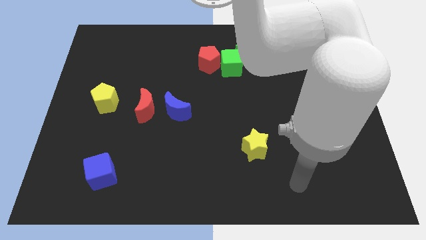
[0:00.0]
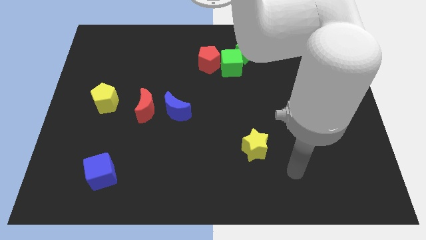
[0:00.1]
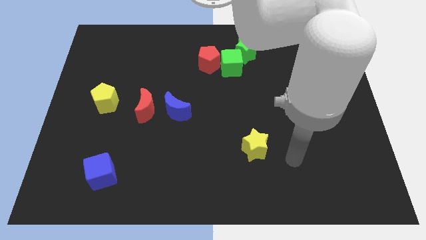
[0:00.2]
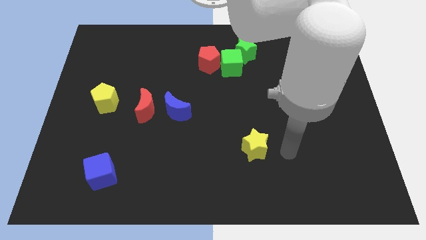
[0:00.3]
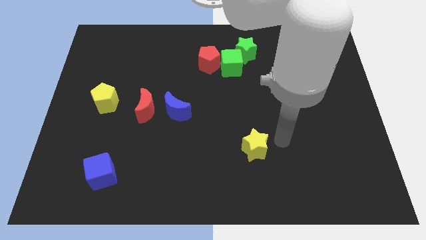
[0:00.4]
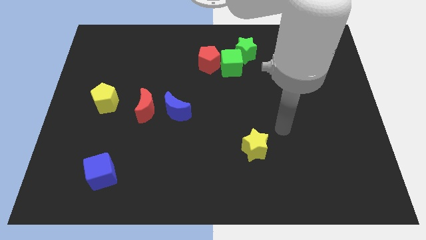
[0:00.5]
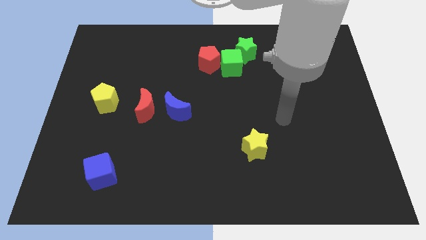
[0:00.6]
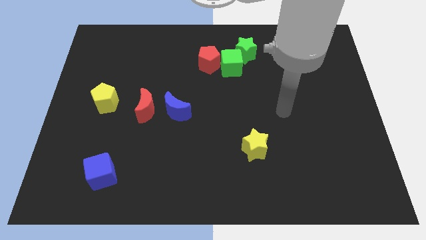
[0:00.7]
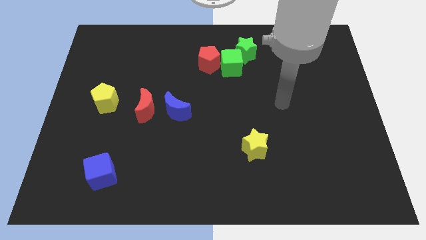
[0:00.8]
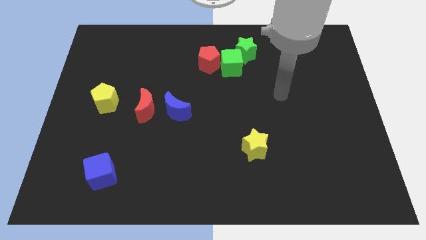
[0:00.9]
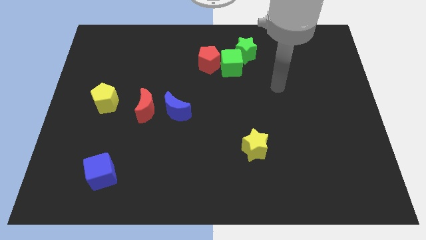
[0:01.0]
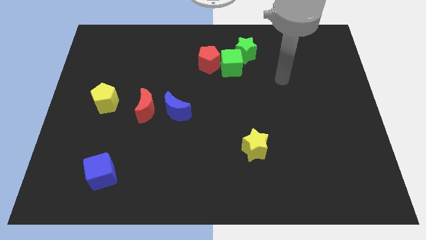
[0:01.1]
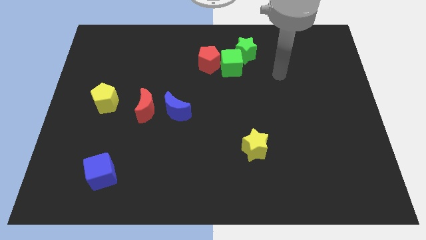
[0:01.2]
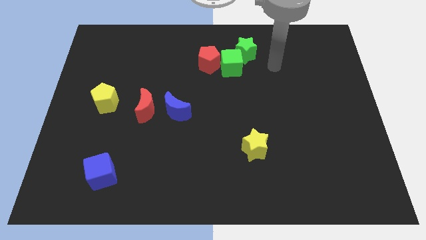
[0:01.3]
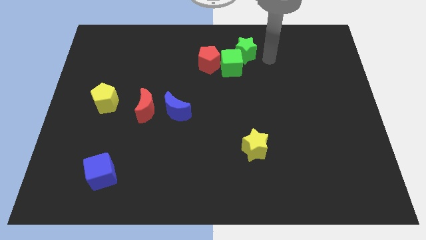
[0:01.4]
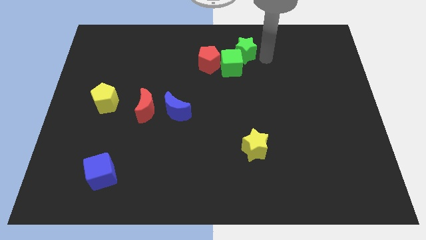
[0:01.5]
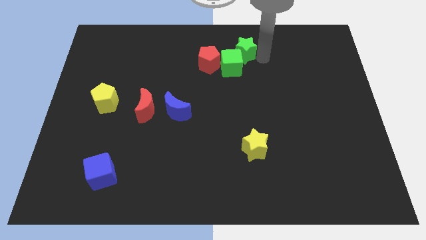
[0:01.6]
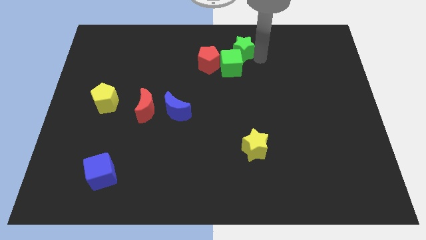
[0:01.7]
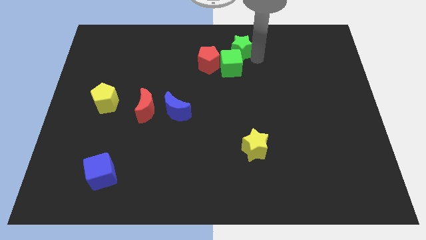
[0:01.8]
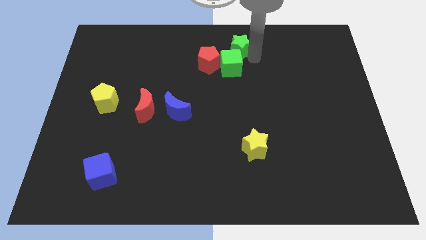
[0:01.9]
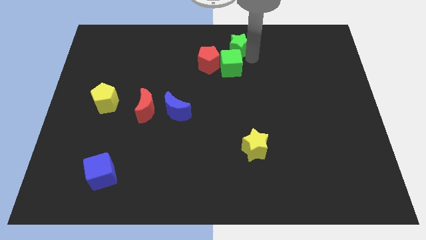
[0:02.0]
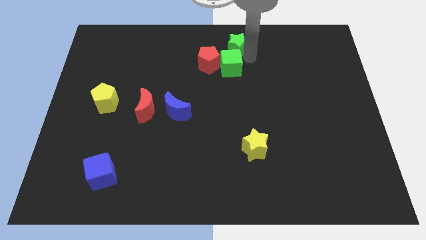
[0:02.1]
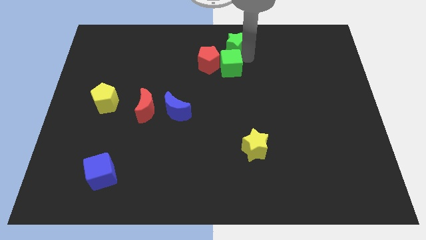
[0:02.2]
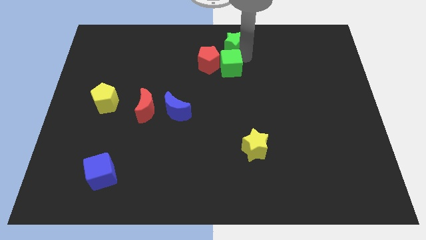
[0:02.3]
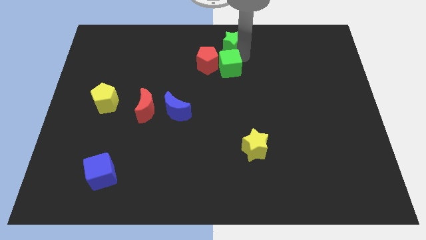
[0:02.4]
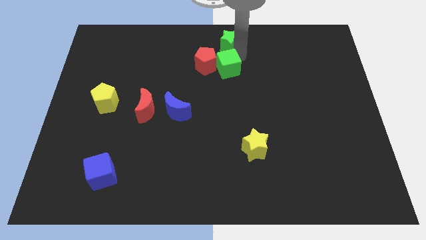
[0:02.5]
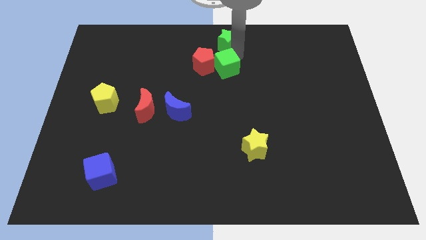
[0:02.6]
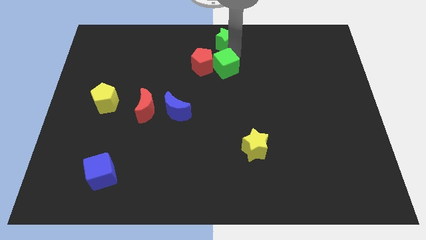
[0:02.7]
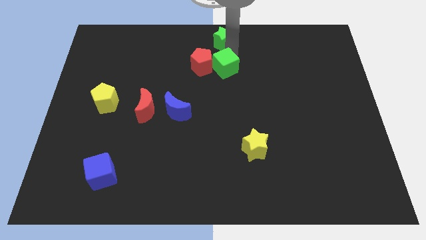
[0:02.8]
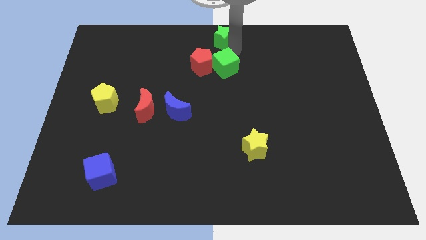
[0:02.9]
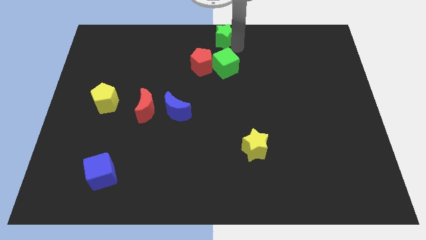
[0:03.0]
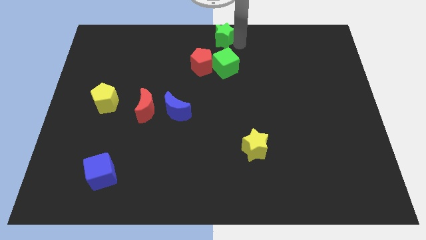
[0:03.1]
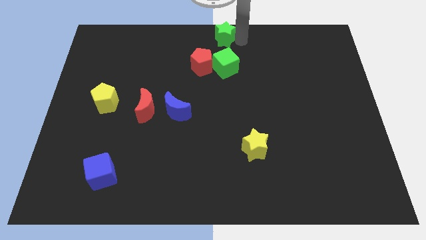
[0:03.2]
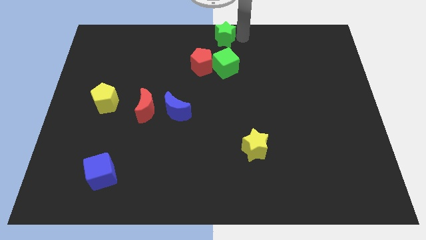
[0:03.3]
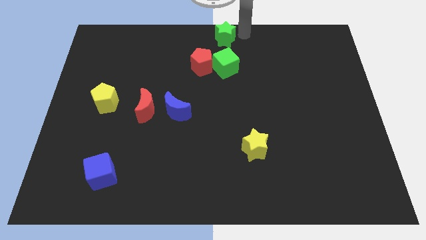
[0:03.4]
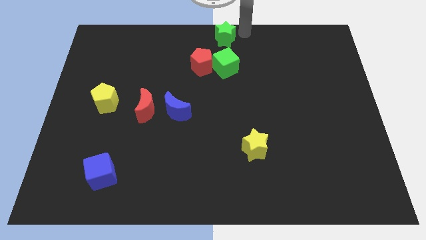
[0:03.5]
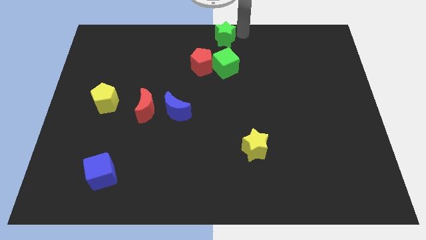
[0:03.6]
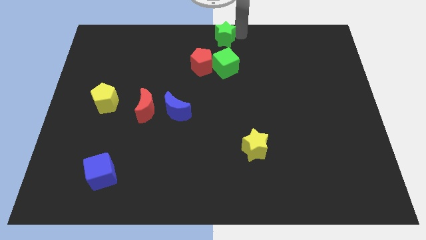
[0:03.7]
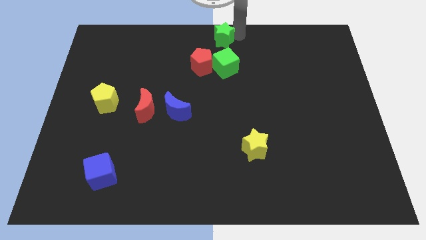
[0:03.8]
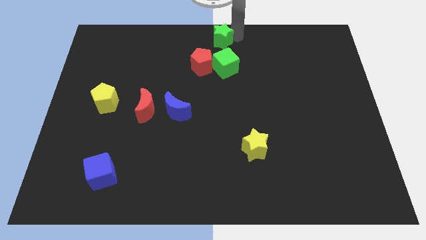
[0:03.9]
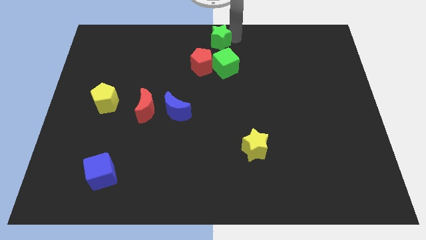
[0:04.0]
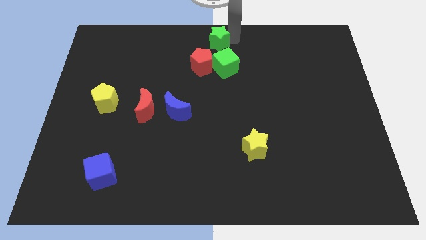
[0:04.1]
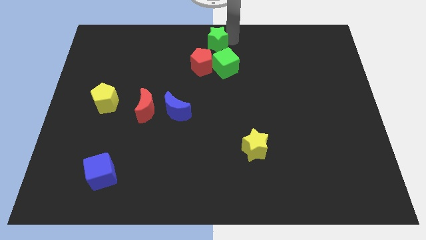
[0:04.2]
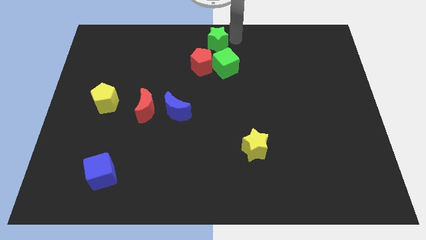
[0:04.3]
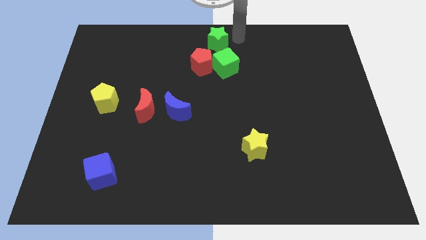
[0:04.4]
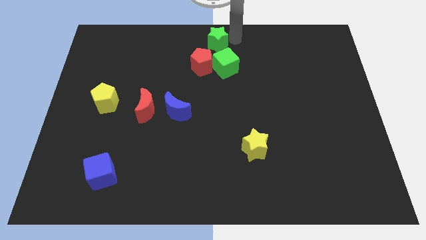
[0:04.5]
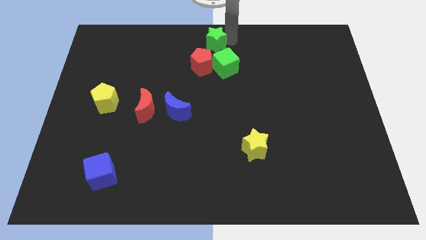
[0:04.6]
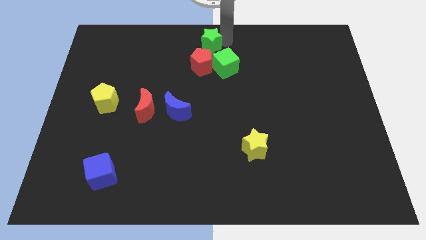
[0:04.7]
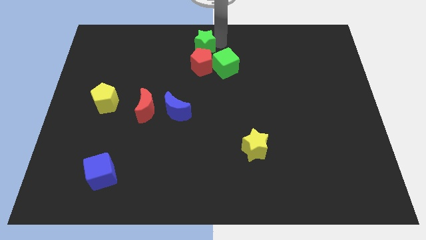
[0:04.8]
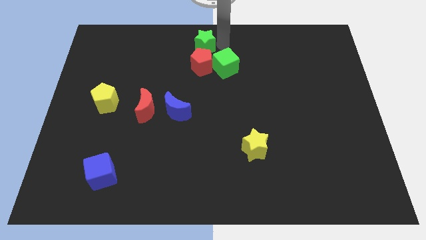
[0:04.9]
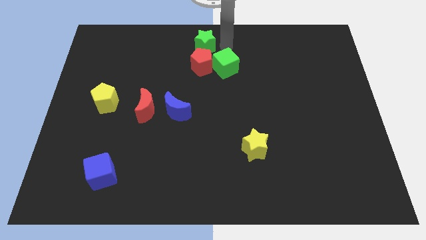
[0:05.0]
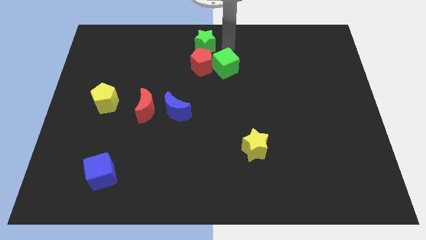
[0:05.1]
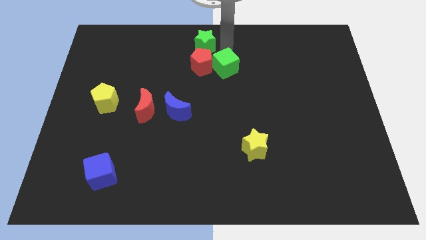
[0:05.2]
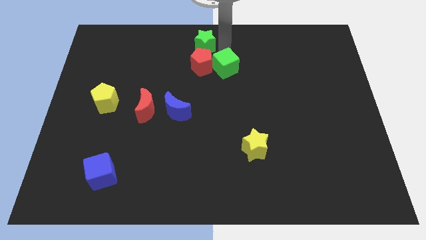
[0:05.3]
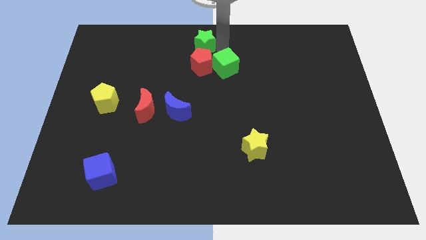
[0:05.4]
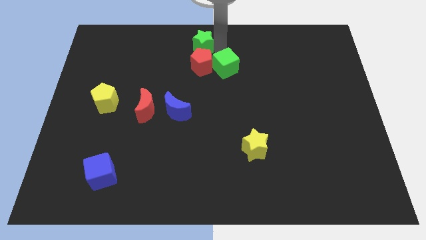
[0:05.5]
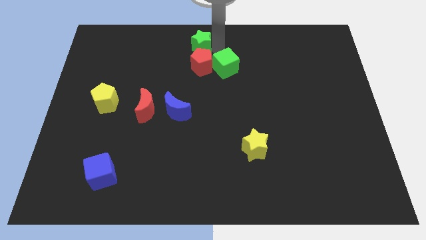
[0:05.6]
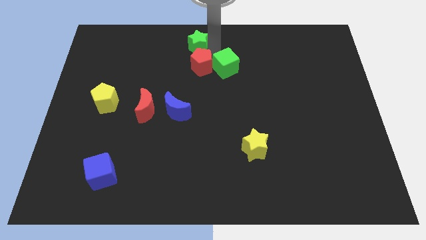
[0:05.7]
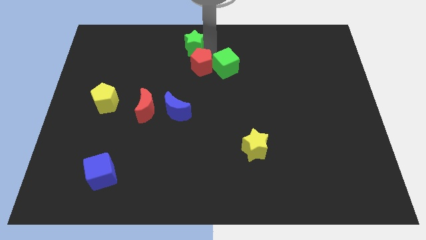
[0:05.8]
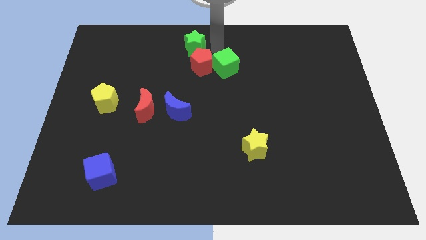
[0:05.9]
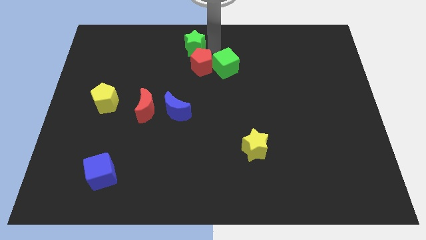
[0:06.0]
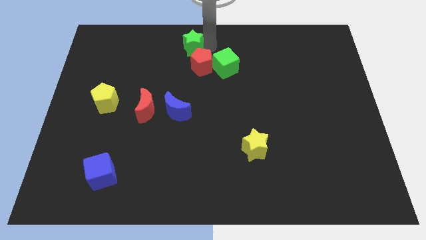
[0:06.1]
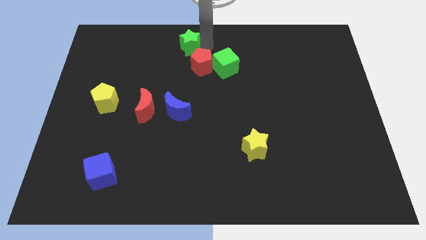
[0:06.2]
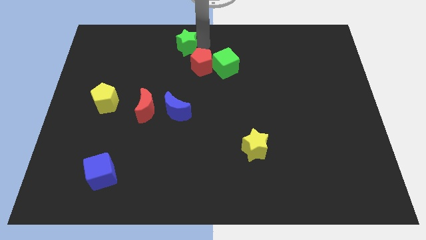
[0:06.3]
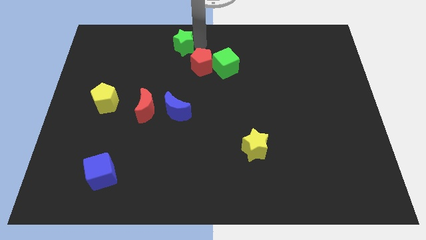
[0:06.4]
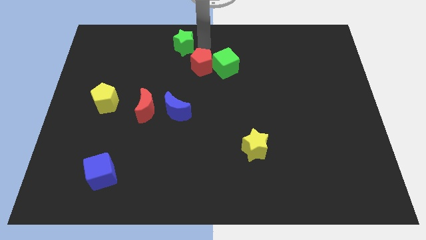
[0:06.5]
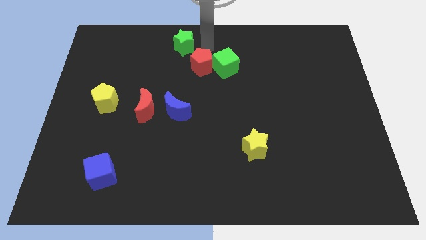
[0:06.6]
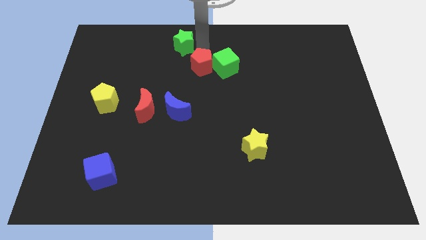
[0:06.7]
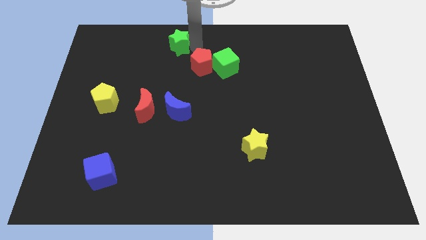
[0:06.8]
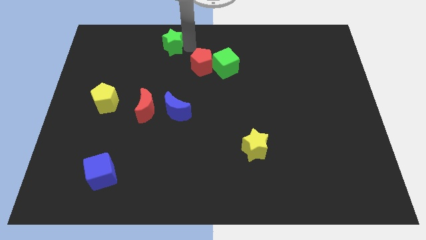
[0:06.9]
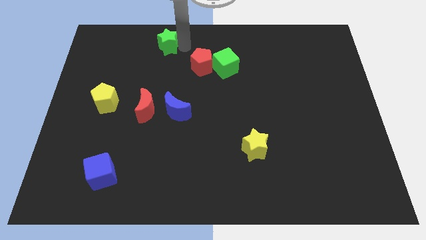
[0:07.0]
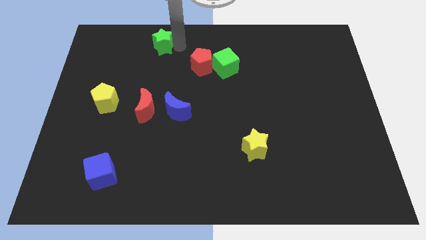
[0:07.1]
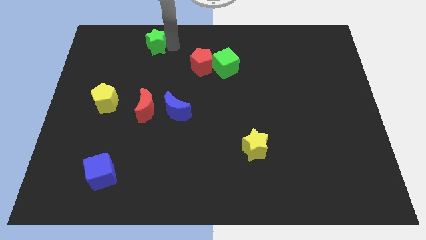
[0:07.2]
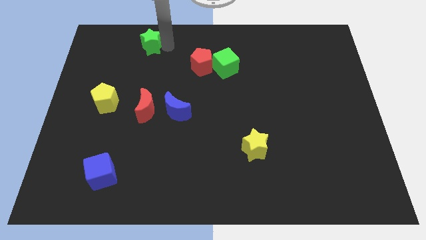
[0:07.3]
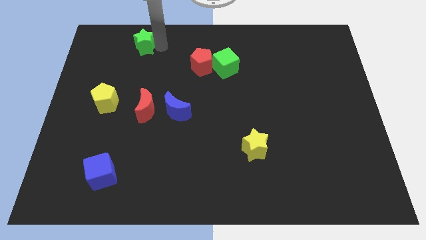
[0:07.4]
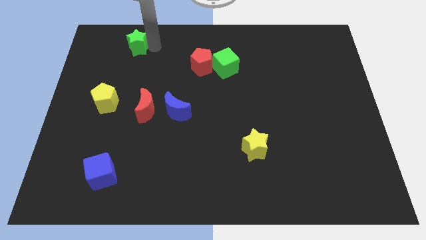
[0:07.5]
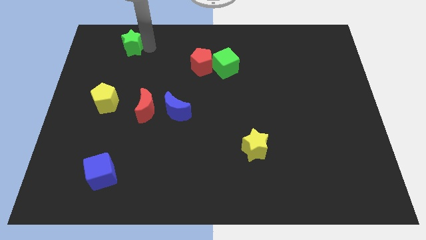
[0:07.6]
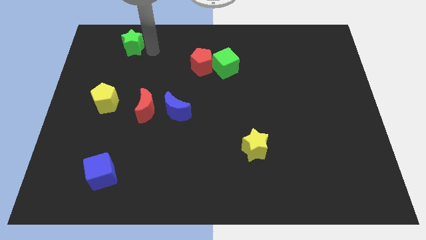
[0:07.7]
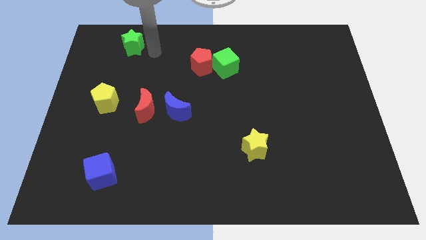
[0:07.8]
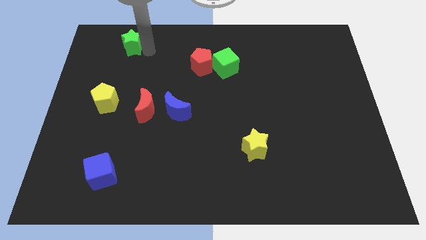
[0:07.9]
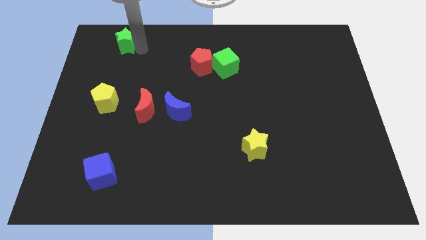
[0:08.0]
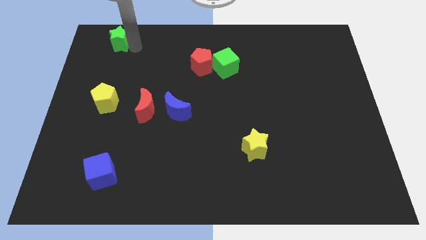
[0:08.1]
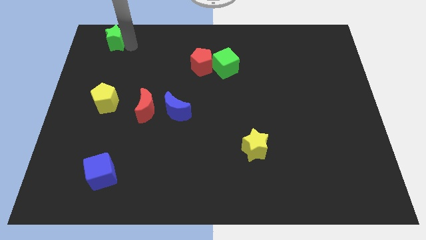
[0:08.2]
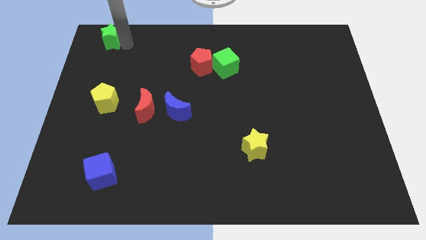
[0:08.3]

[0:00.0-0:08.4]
put the green star to the top left of the board
